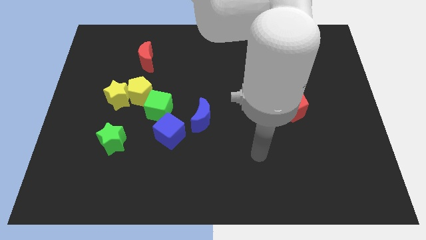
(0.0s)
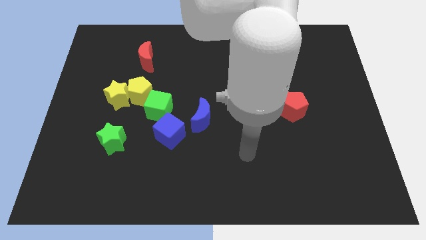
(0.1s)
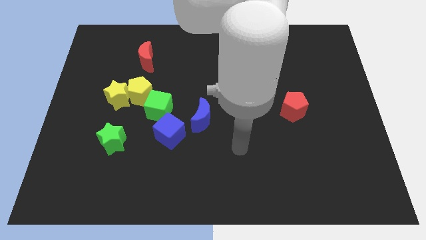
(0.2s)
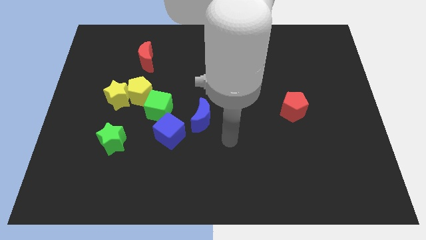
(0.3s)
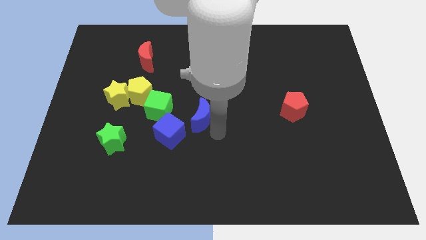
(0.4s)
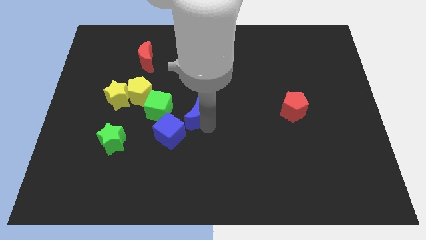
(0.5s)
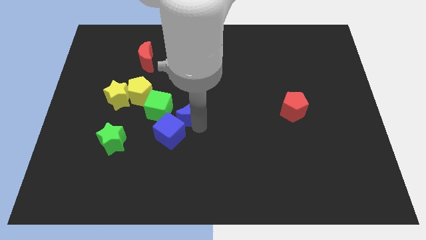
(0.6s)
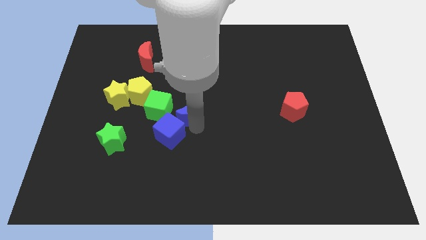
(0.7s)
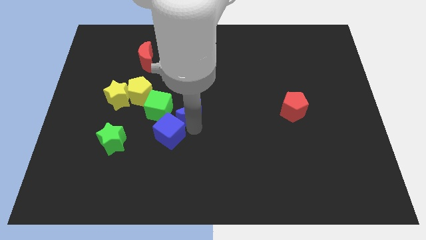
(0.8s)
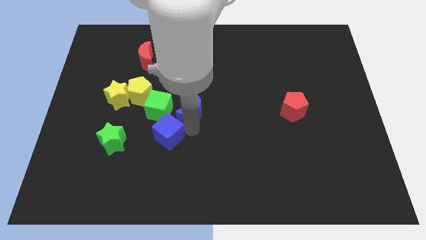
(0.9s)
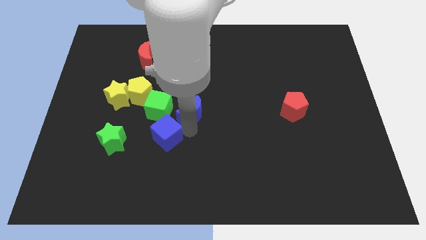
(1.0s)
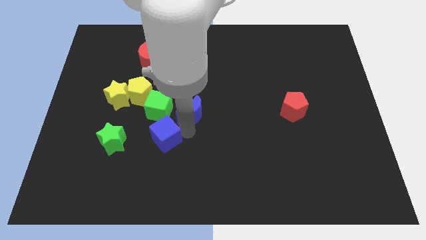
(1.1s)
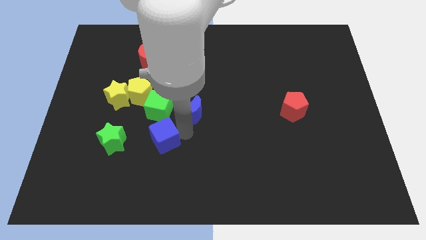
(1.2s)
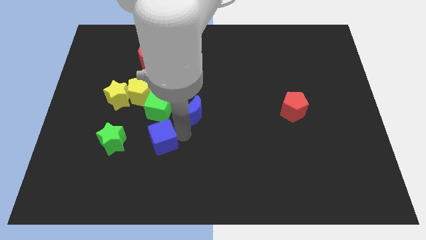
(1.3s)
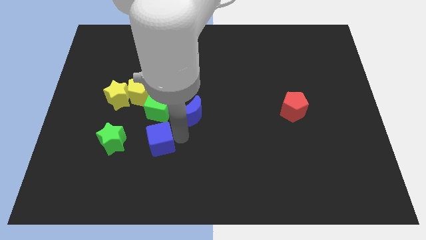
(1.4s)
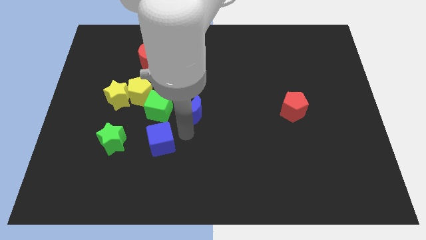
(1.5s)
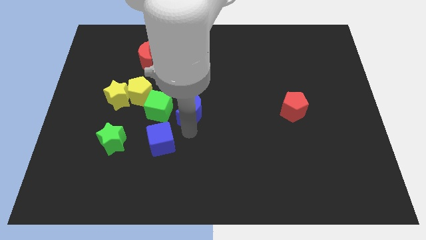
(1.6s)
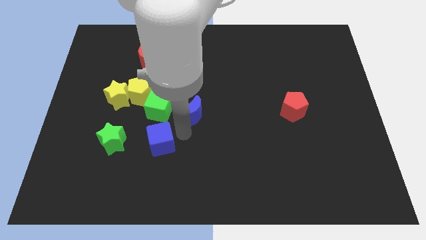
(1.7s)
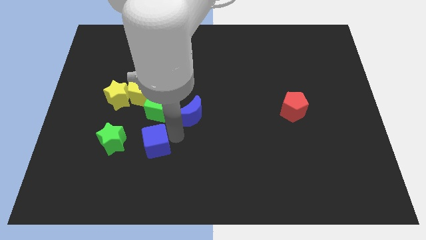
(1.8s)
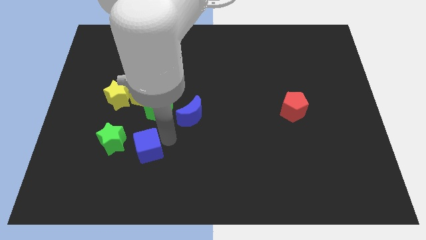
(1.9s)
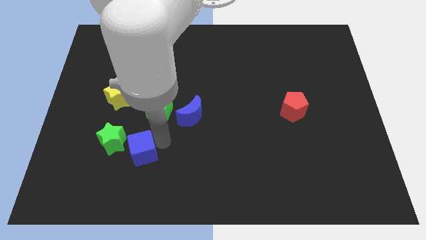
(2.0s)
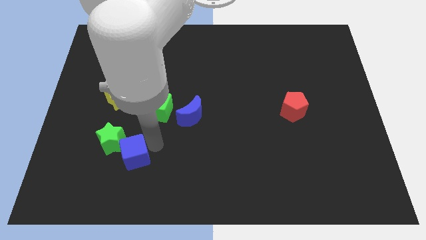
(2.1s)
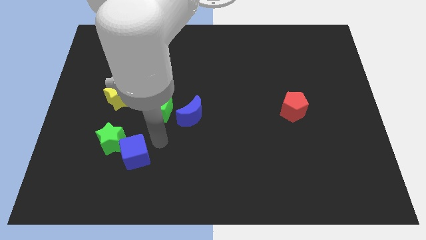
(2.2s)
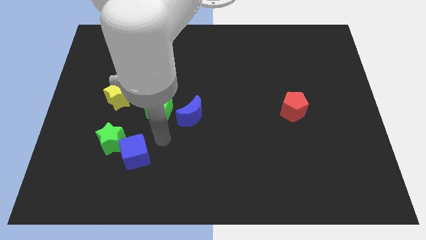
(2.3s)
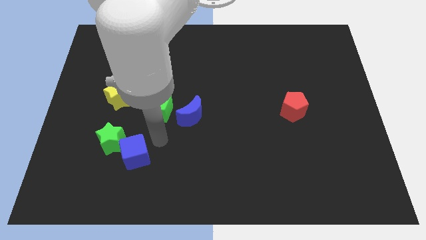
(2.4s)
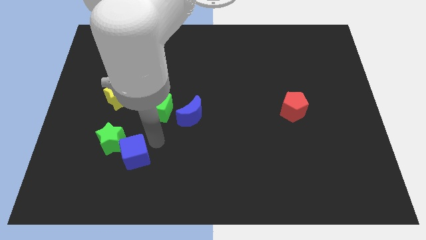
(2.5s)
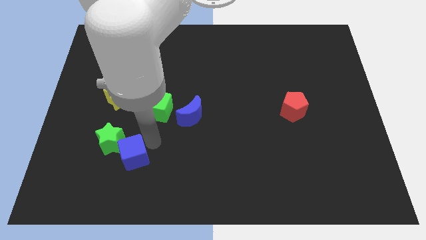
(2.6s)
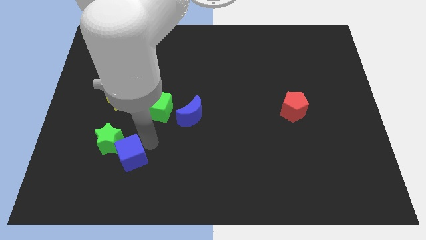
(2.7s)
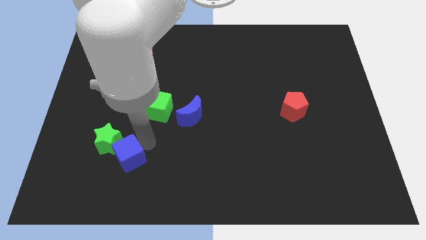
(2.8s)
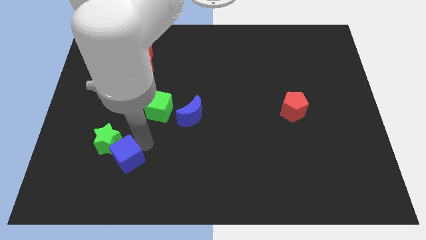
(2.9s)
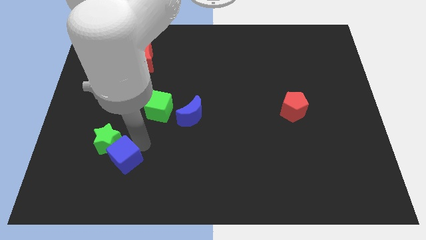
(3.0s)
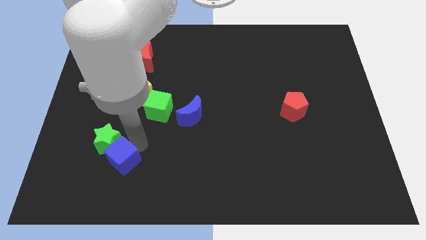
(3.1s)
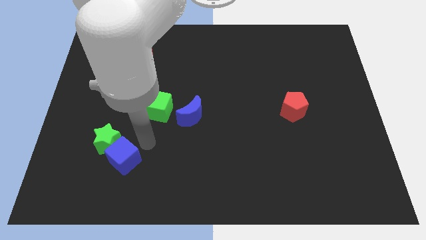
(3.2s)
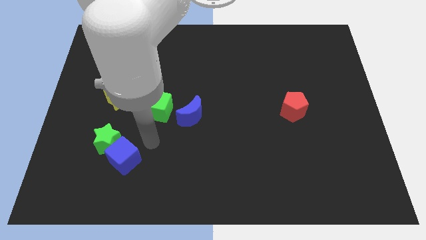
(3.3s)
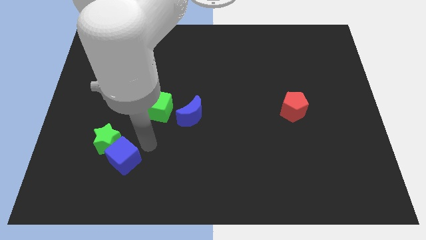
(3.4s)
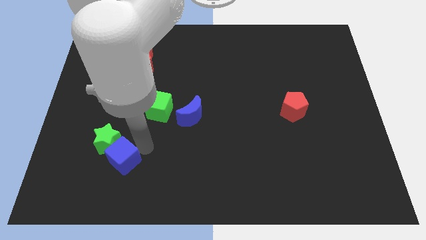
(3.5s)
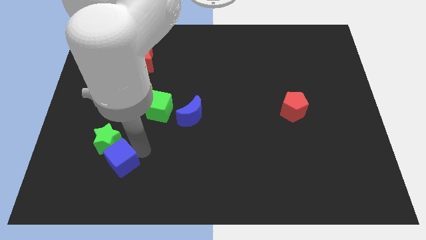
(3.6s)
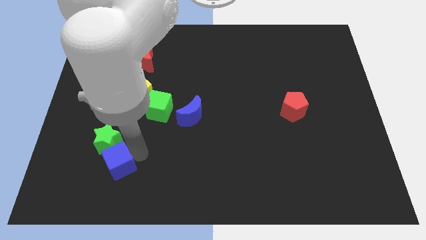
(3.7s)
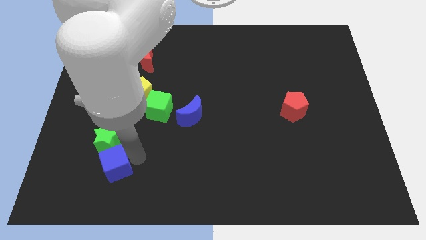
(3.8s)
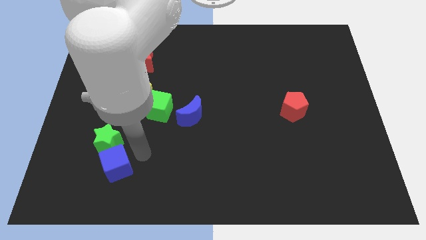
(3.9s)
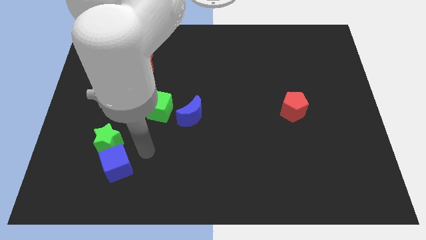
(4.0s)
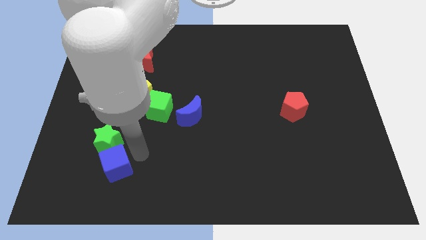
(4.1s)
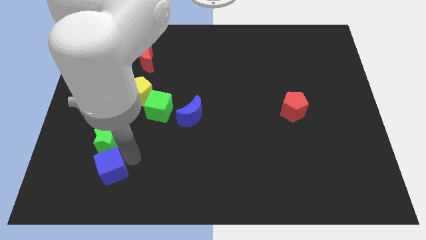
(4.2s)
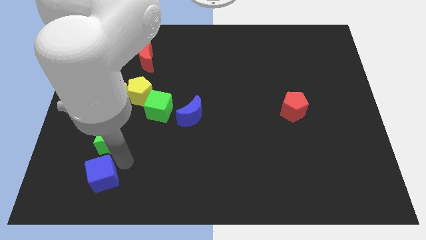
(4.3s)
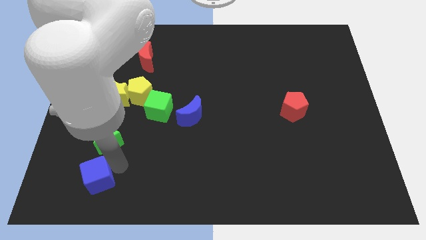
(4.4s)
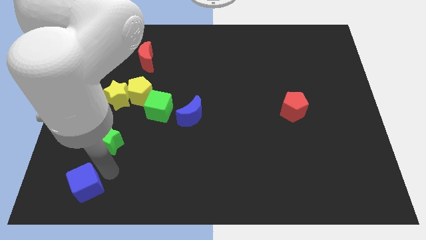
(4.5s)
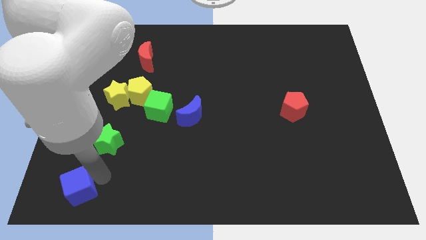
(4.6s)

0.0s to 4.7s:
move the blue cube to the bottom left corner

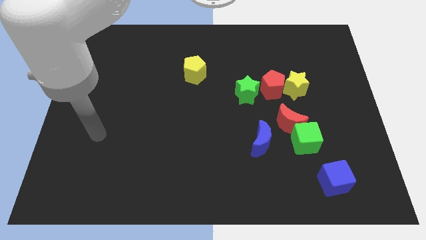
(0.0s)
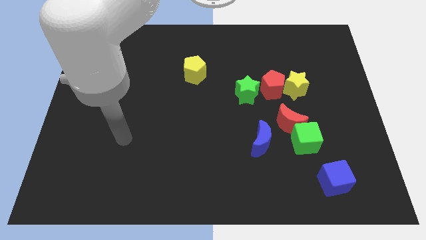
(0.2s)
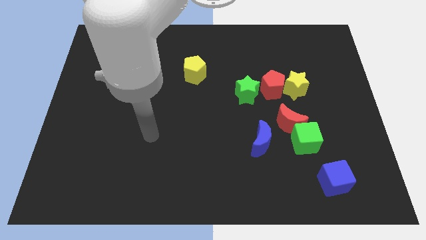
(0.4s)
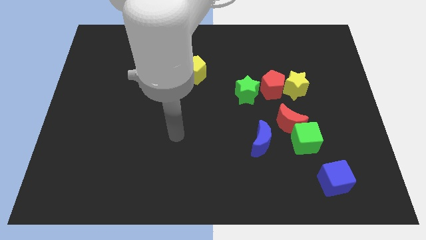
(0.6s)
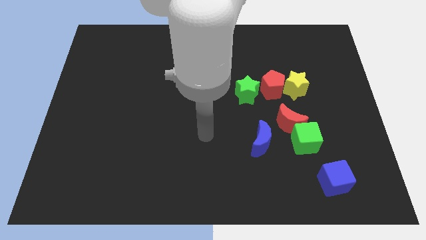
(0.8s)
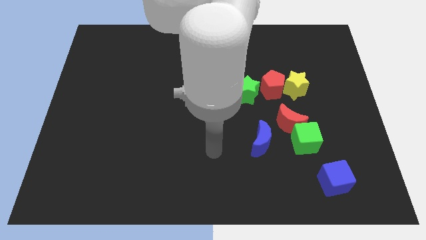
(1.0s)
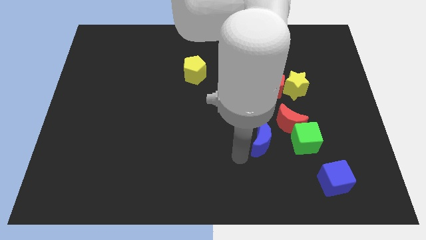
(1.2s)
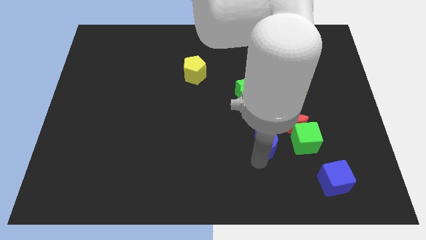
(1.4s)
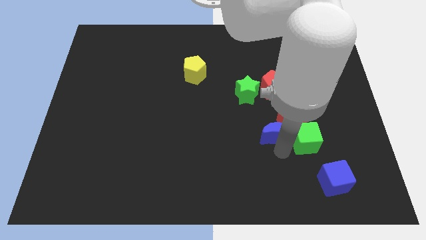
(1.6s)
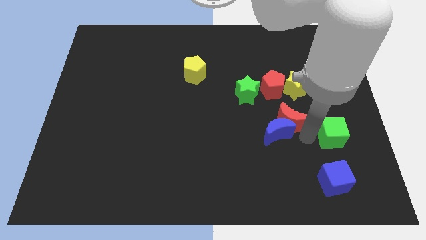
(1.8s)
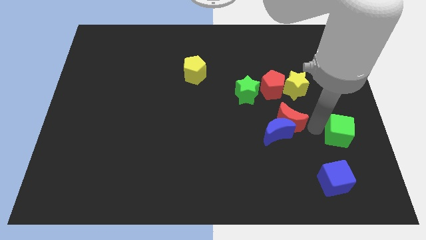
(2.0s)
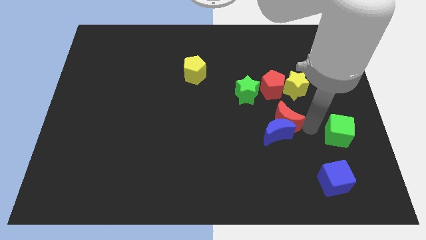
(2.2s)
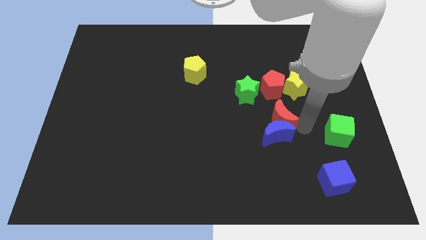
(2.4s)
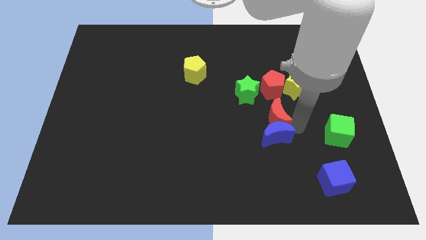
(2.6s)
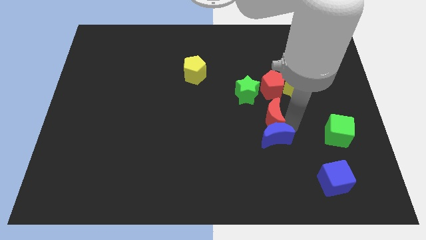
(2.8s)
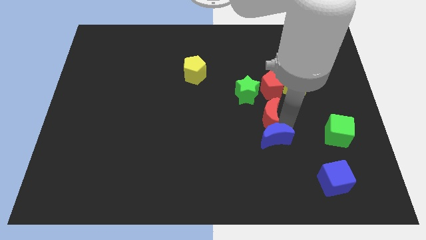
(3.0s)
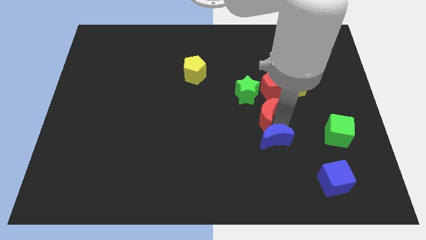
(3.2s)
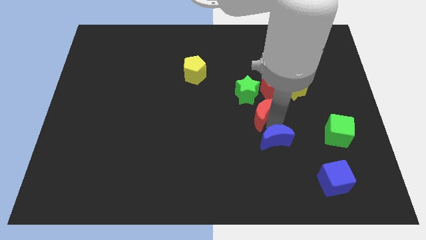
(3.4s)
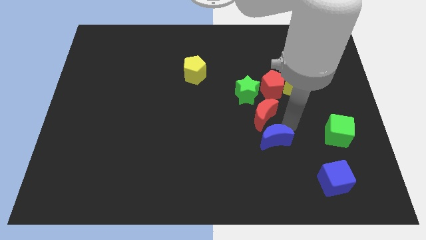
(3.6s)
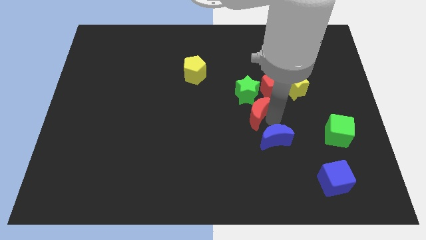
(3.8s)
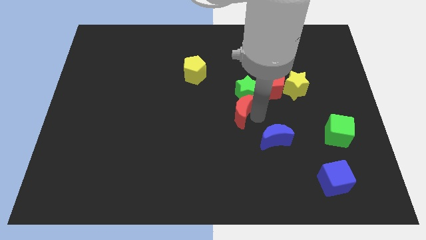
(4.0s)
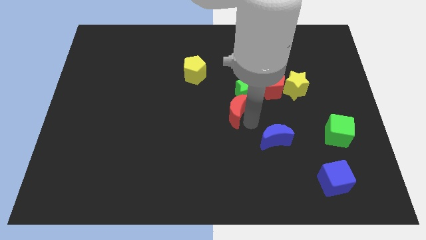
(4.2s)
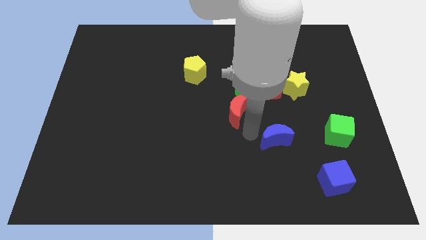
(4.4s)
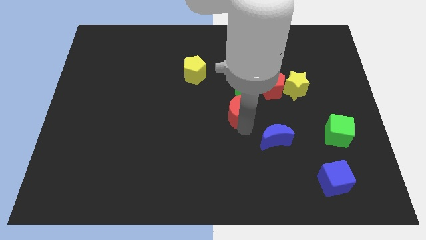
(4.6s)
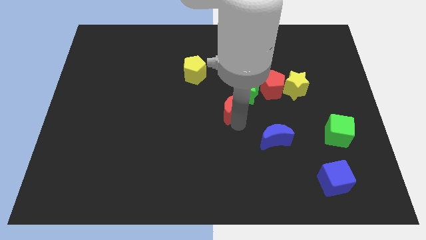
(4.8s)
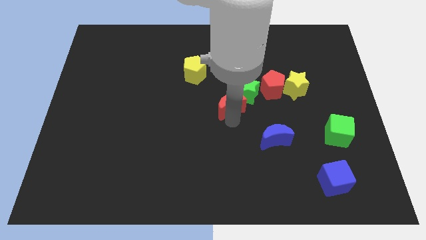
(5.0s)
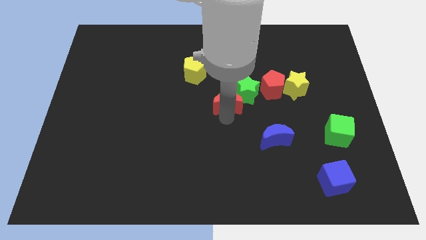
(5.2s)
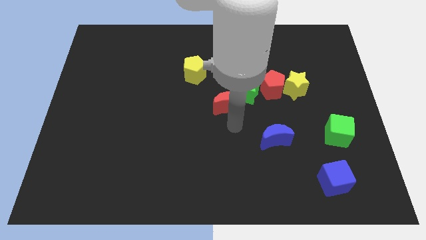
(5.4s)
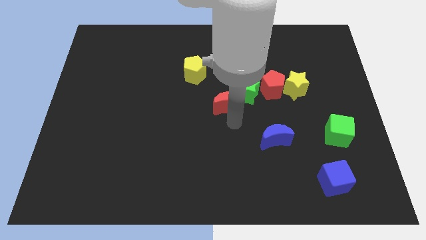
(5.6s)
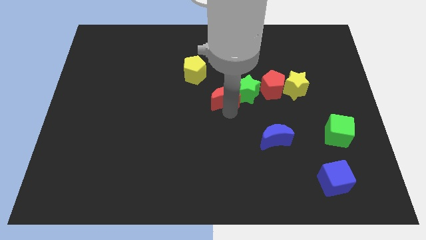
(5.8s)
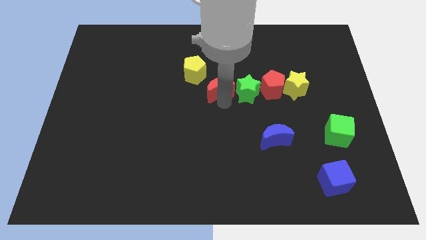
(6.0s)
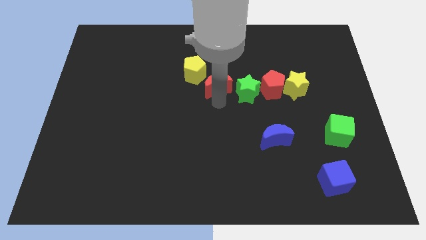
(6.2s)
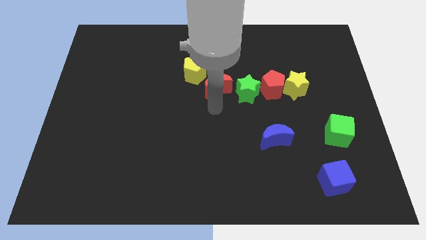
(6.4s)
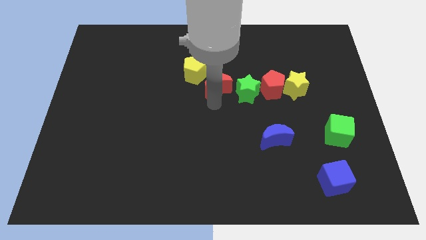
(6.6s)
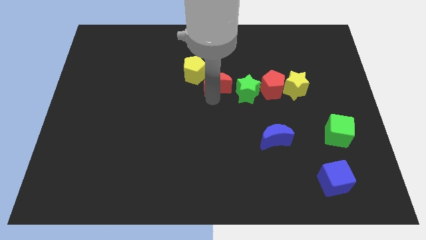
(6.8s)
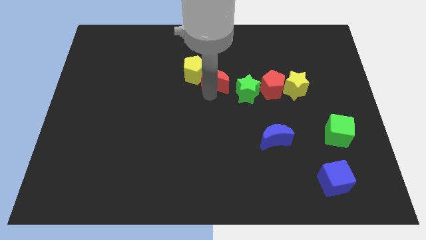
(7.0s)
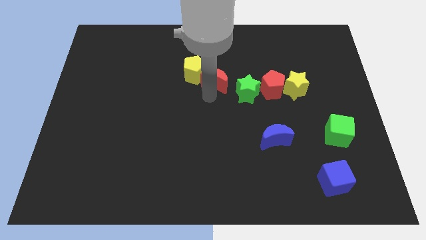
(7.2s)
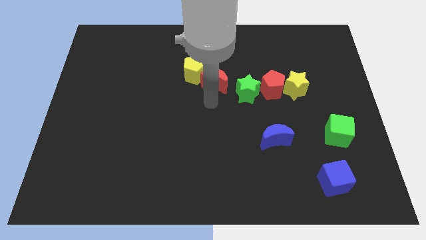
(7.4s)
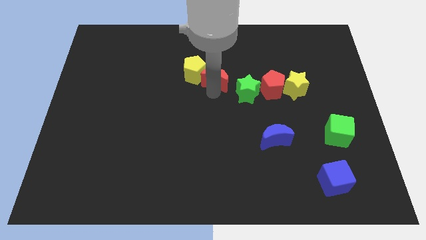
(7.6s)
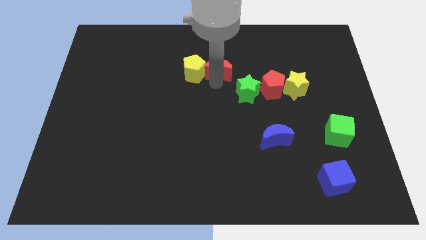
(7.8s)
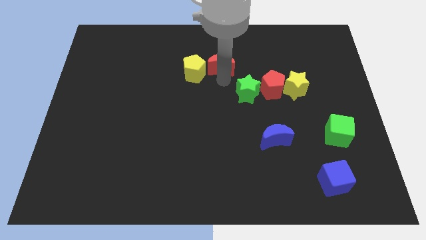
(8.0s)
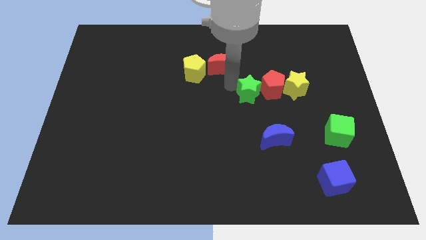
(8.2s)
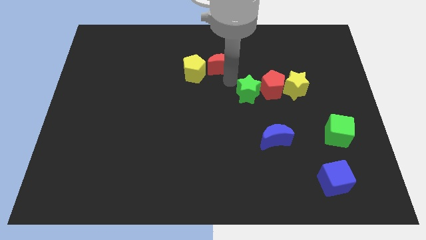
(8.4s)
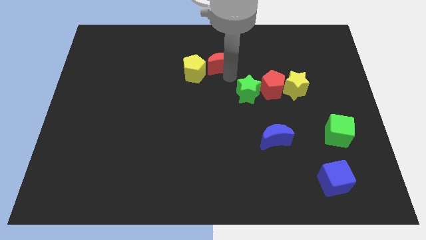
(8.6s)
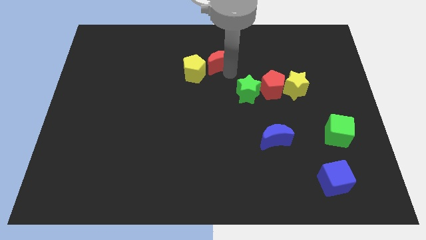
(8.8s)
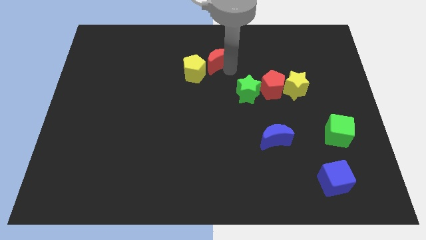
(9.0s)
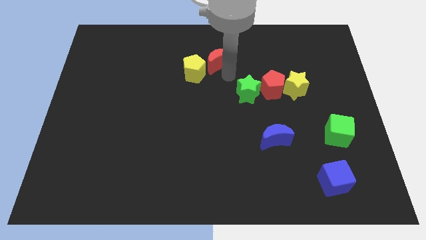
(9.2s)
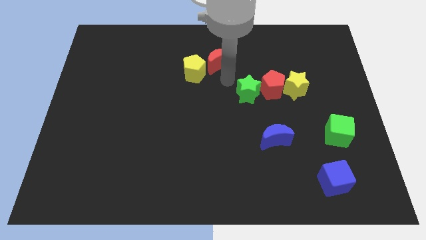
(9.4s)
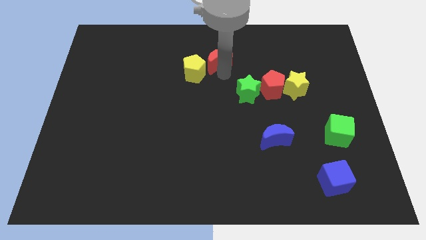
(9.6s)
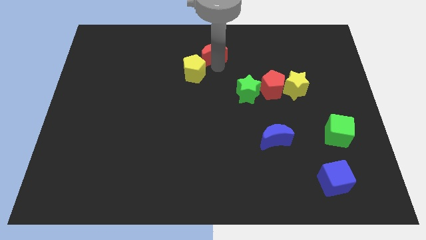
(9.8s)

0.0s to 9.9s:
push the red moon to the top
